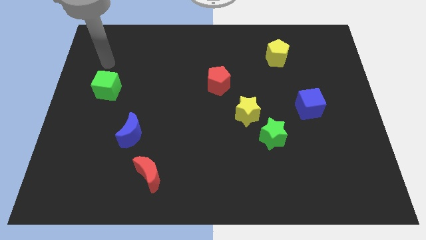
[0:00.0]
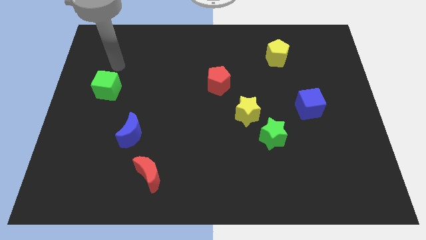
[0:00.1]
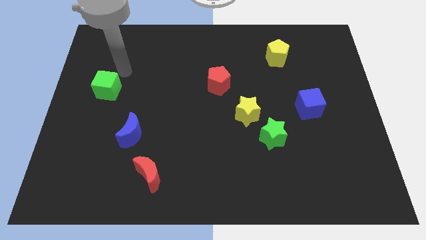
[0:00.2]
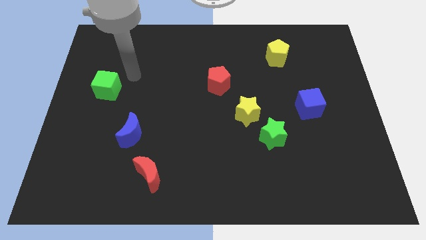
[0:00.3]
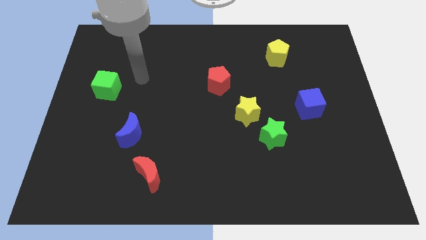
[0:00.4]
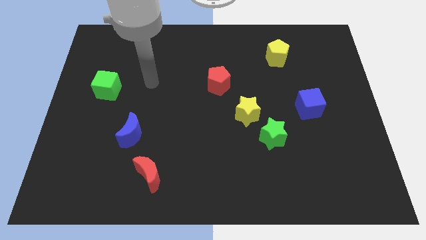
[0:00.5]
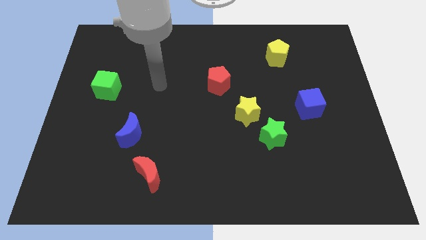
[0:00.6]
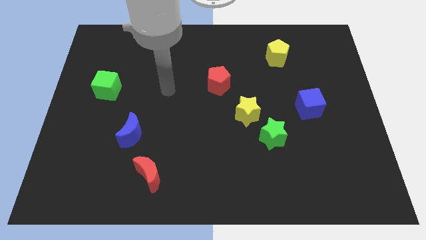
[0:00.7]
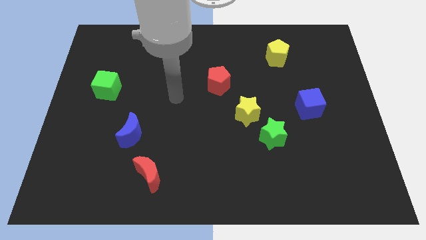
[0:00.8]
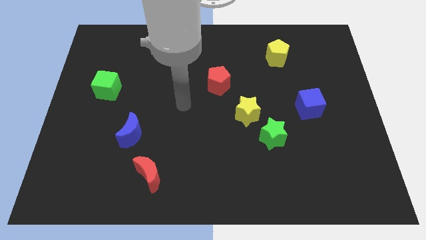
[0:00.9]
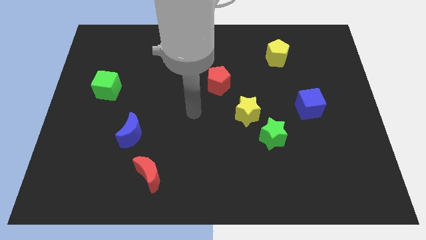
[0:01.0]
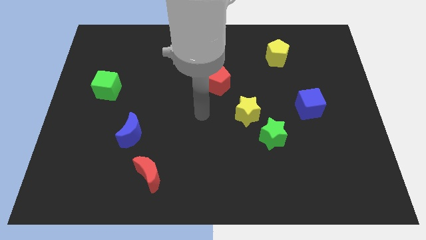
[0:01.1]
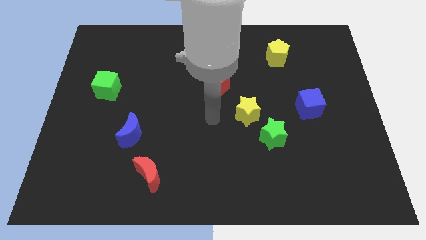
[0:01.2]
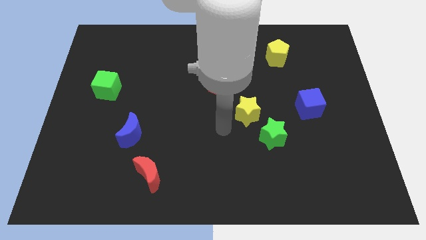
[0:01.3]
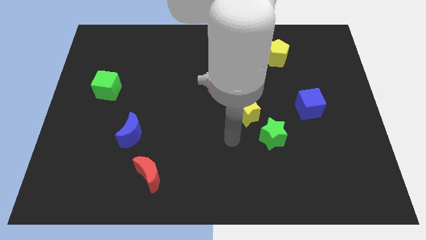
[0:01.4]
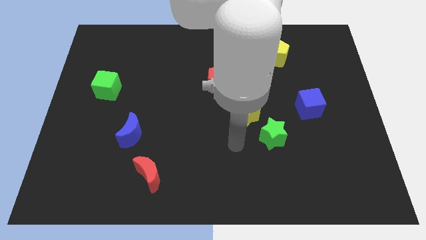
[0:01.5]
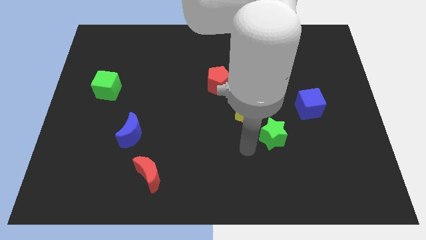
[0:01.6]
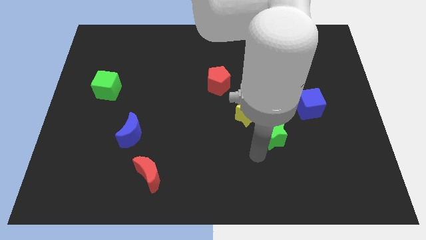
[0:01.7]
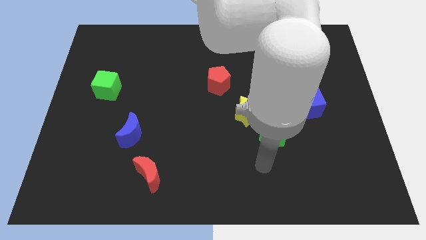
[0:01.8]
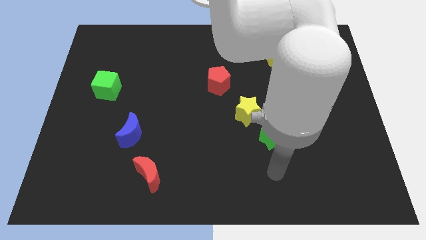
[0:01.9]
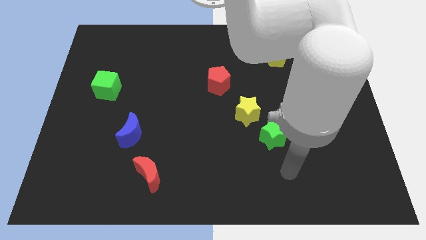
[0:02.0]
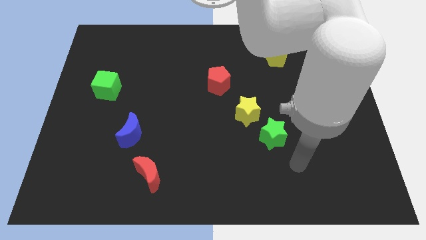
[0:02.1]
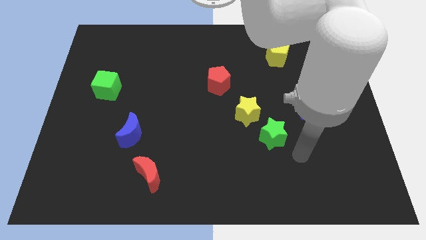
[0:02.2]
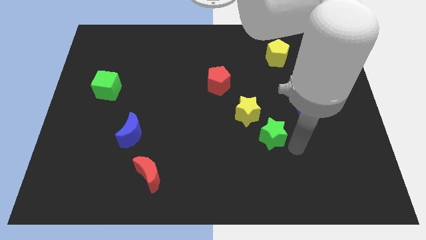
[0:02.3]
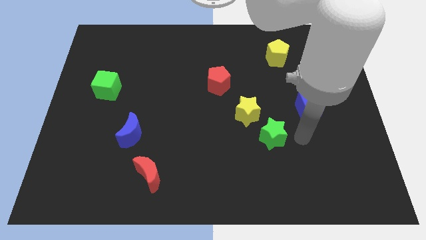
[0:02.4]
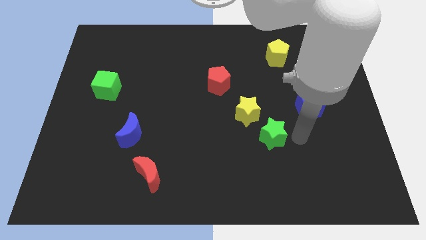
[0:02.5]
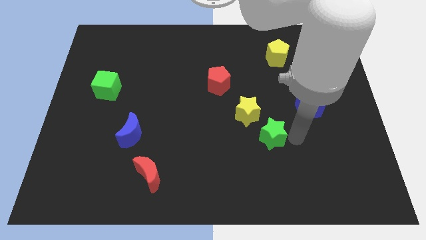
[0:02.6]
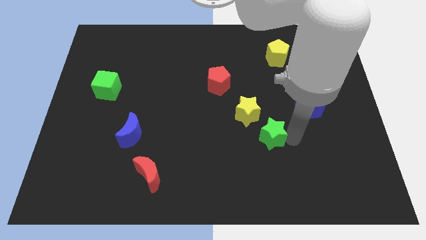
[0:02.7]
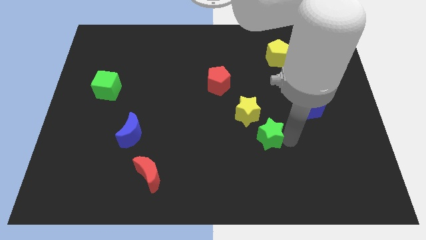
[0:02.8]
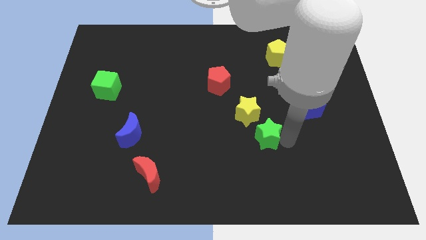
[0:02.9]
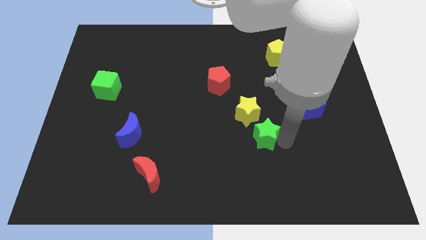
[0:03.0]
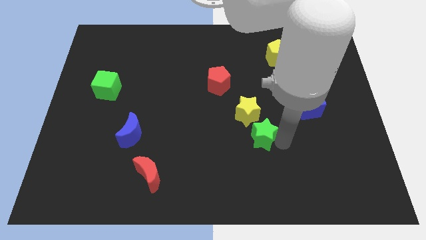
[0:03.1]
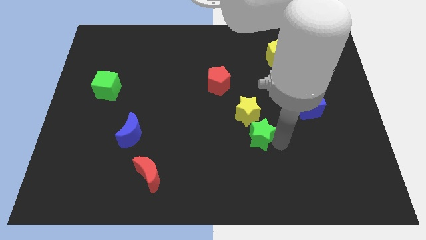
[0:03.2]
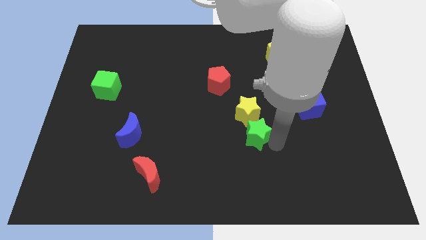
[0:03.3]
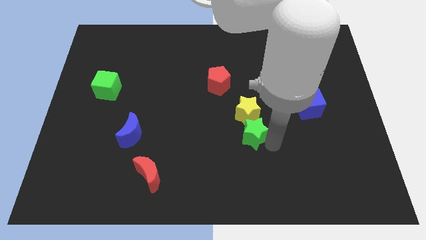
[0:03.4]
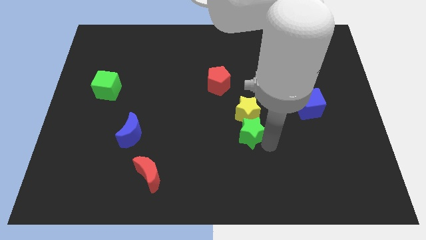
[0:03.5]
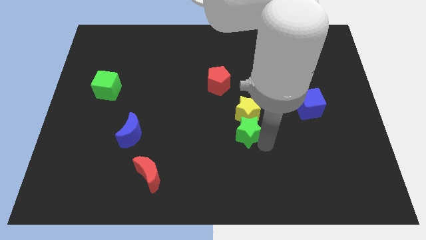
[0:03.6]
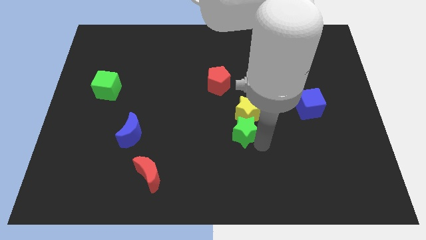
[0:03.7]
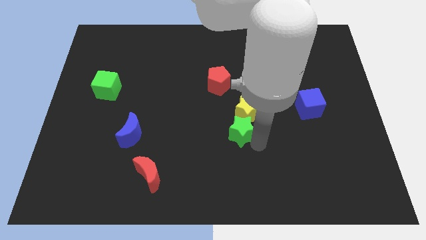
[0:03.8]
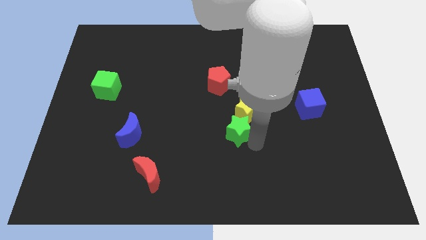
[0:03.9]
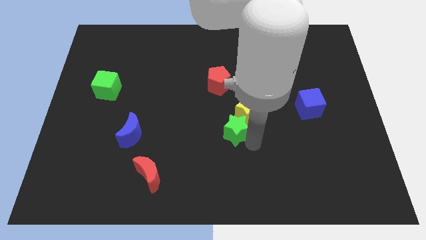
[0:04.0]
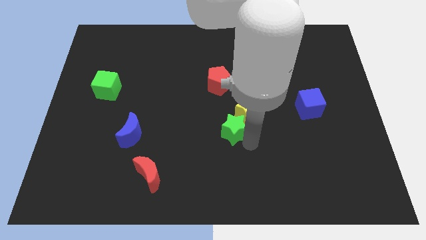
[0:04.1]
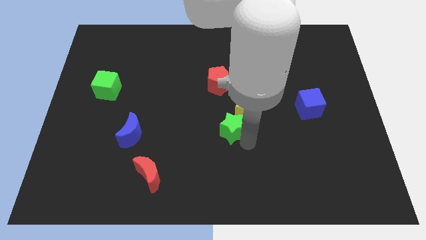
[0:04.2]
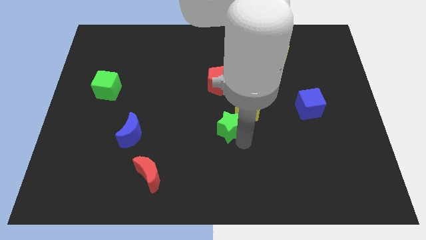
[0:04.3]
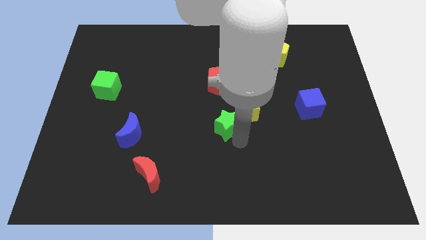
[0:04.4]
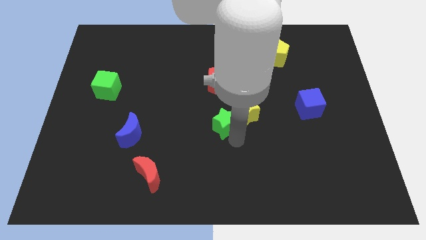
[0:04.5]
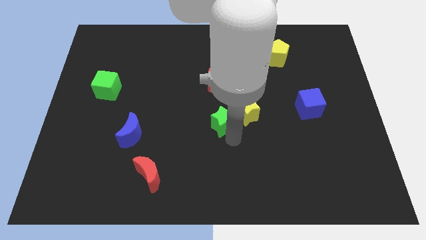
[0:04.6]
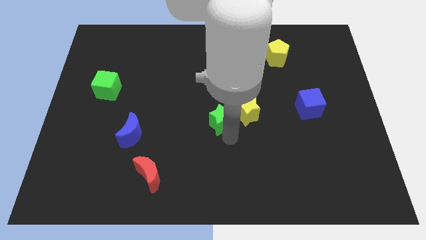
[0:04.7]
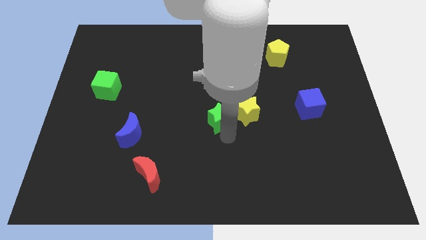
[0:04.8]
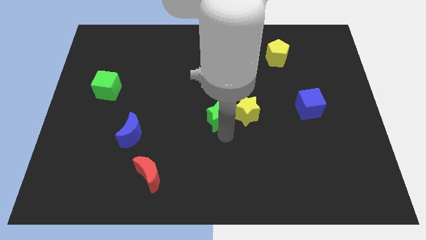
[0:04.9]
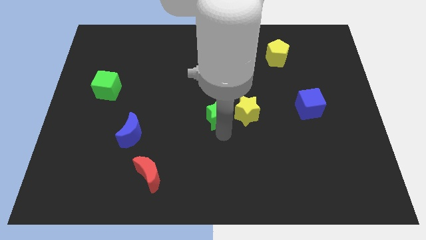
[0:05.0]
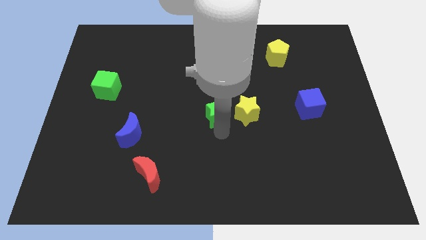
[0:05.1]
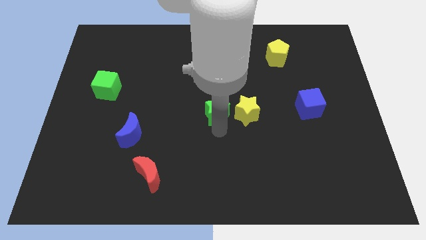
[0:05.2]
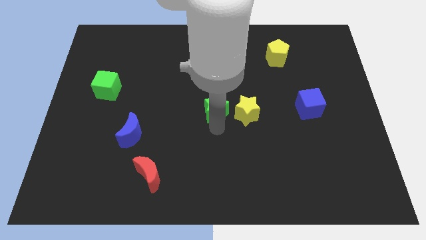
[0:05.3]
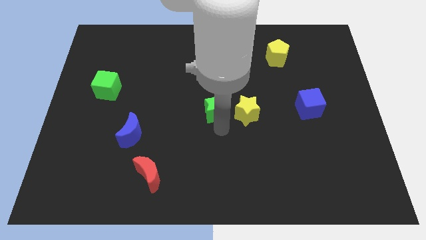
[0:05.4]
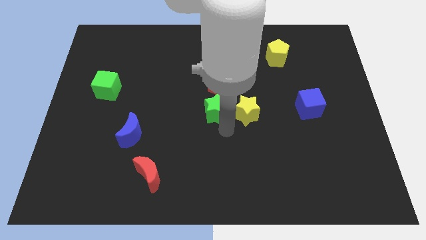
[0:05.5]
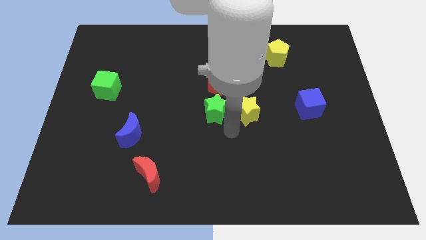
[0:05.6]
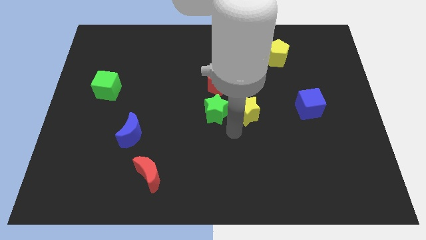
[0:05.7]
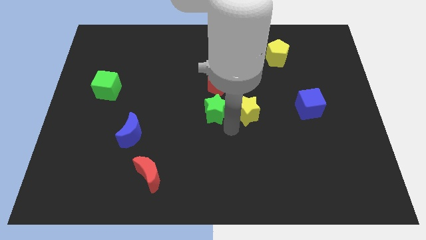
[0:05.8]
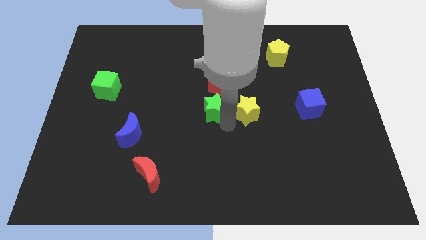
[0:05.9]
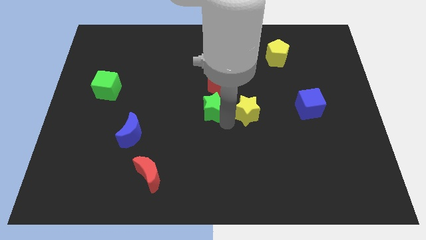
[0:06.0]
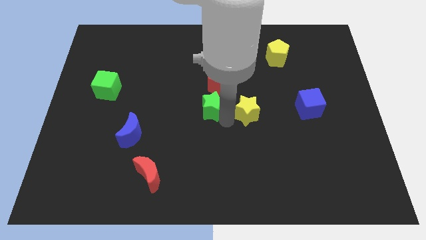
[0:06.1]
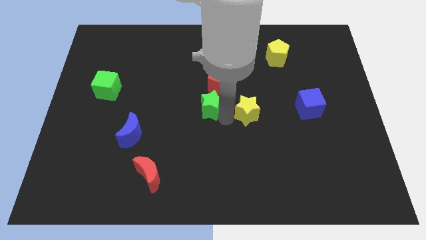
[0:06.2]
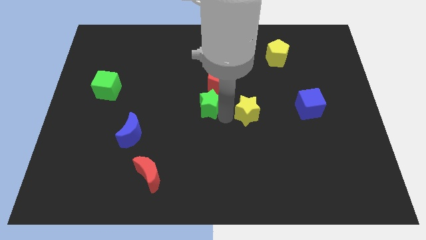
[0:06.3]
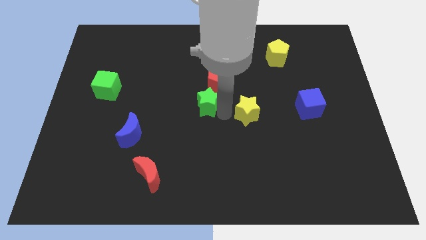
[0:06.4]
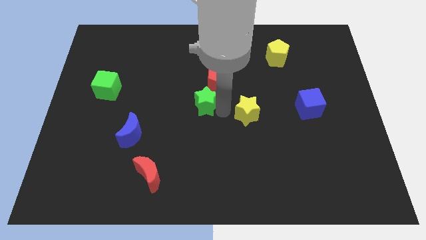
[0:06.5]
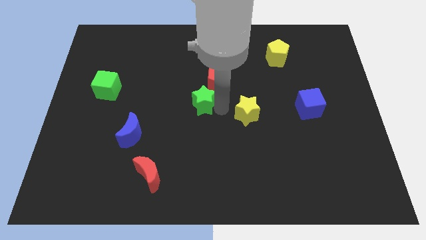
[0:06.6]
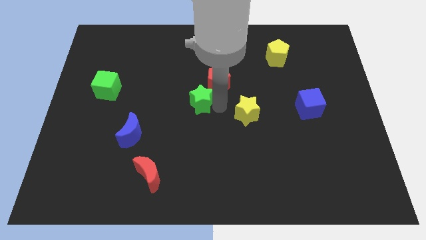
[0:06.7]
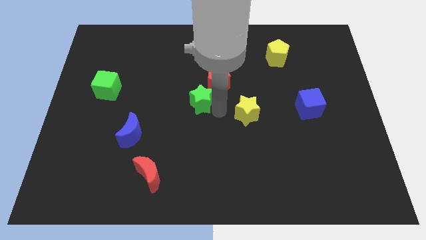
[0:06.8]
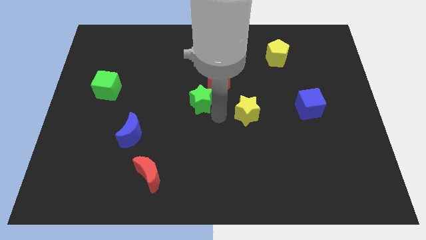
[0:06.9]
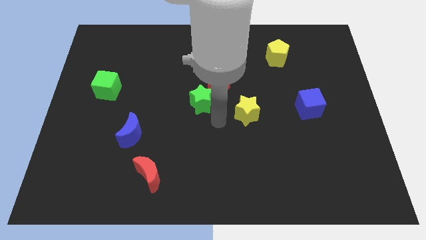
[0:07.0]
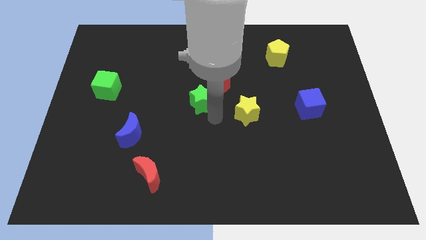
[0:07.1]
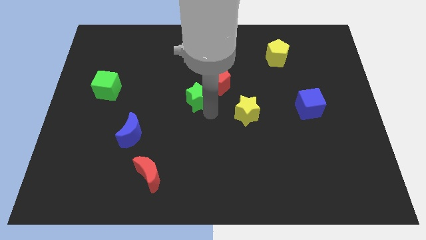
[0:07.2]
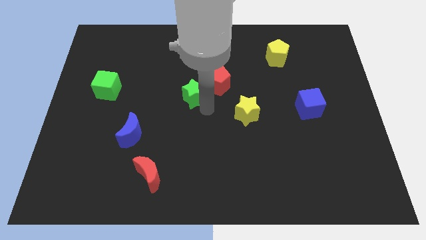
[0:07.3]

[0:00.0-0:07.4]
move the green star to the left of the red pentagon
